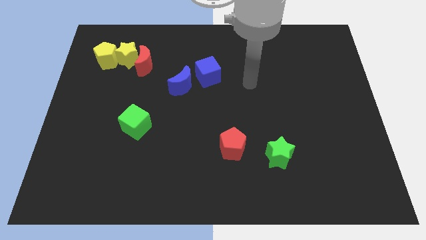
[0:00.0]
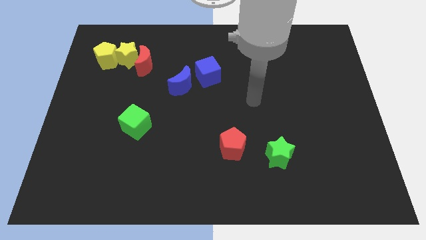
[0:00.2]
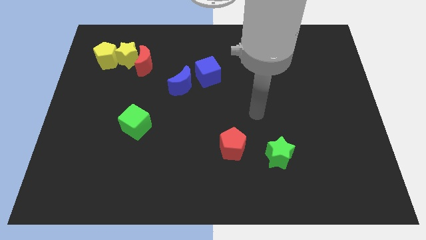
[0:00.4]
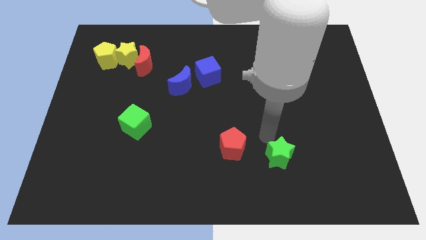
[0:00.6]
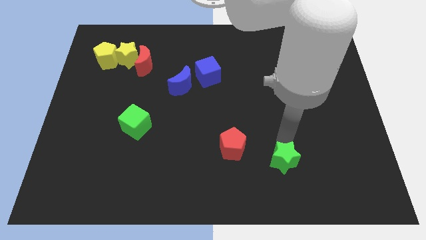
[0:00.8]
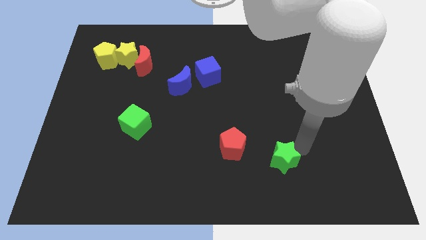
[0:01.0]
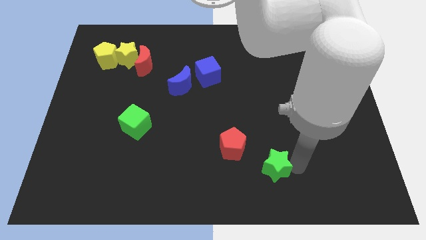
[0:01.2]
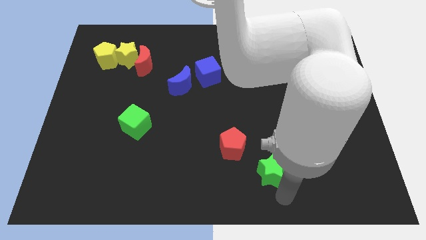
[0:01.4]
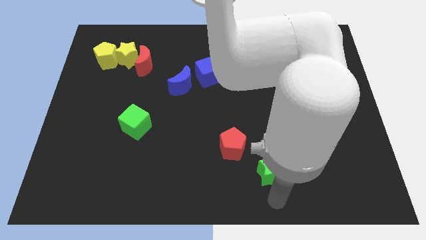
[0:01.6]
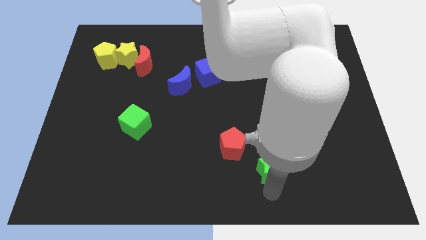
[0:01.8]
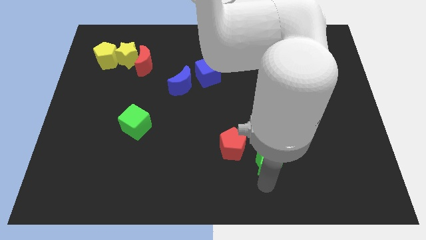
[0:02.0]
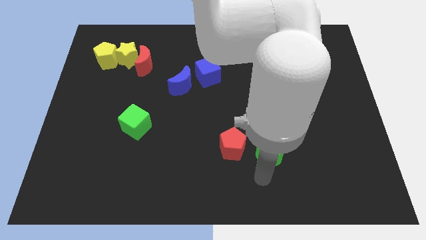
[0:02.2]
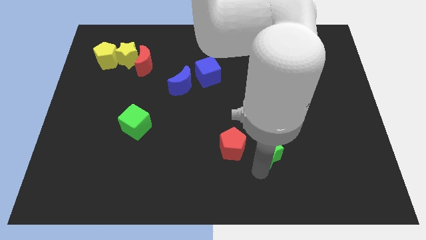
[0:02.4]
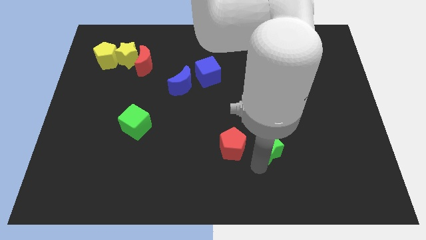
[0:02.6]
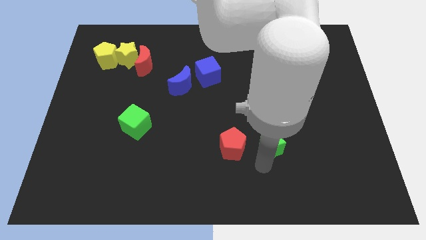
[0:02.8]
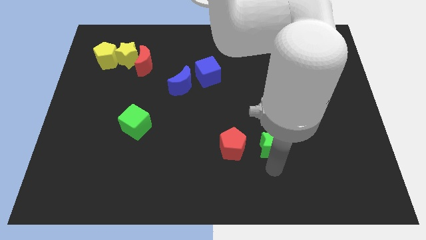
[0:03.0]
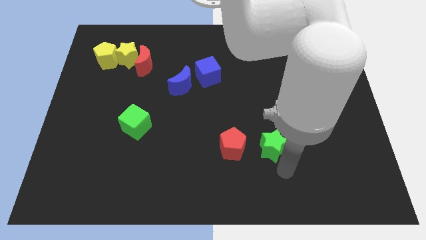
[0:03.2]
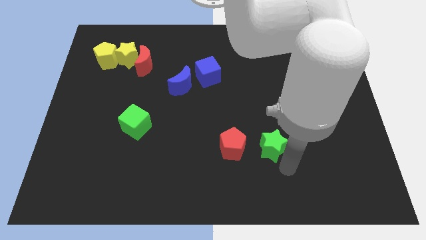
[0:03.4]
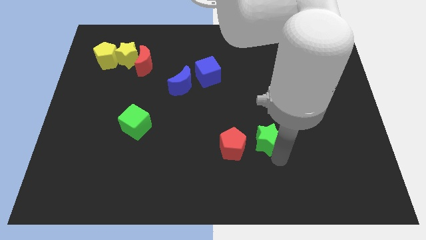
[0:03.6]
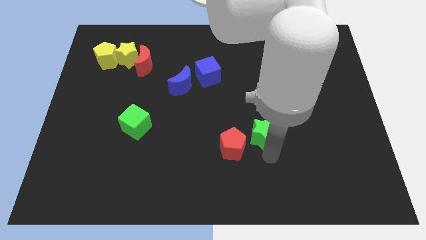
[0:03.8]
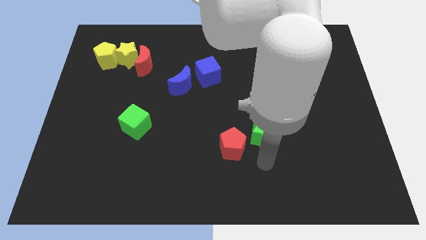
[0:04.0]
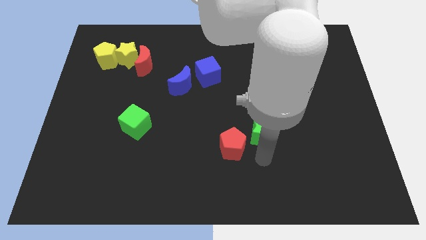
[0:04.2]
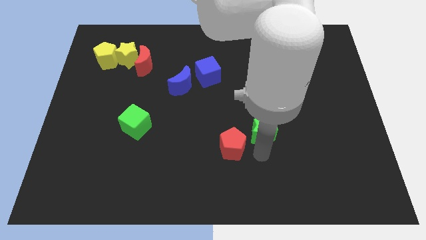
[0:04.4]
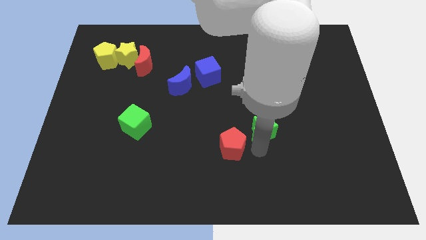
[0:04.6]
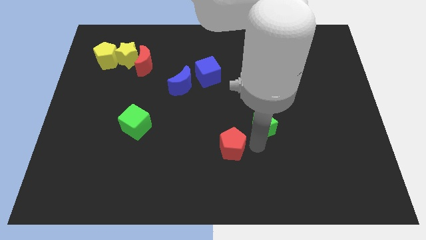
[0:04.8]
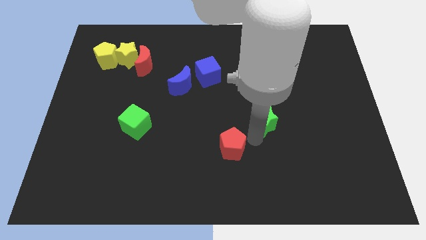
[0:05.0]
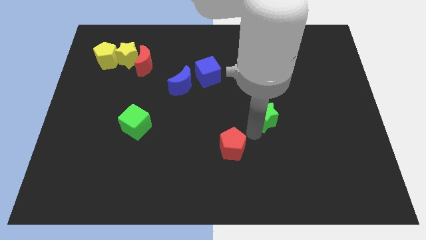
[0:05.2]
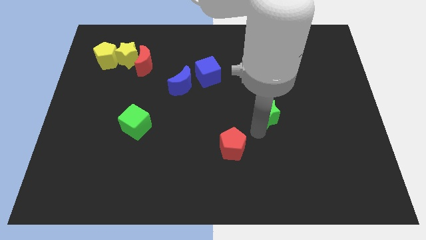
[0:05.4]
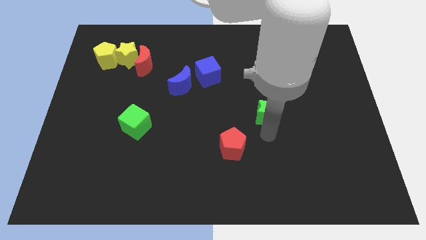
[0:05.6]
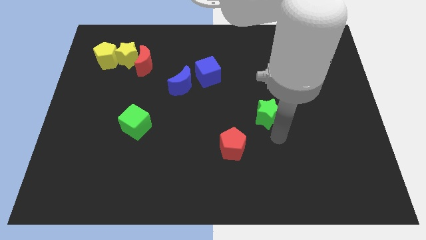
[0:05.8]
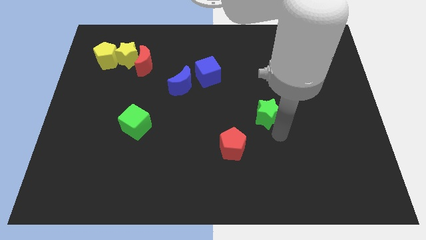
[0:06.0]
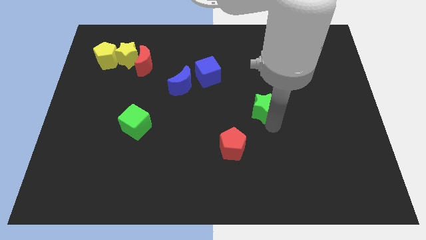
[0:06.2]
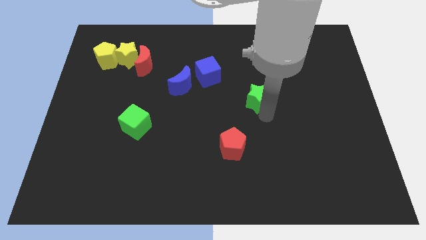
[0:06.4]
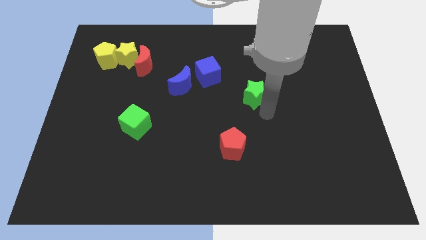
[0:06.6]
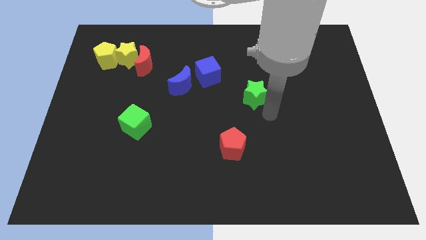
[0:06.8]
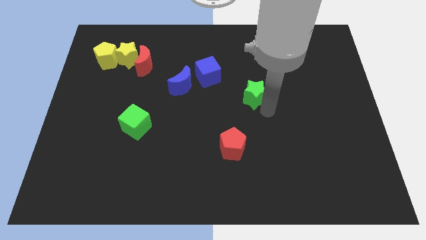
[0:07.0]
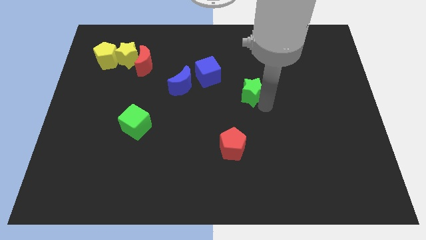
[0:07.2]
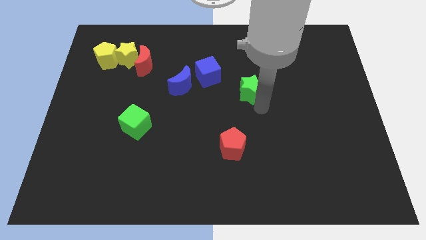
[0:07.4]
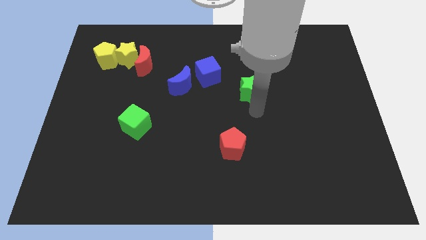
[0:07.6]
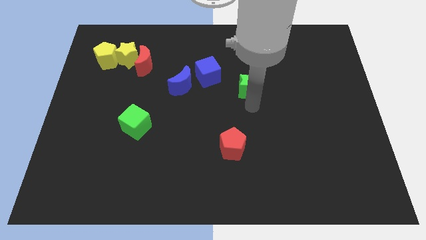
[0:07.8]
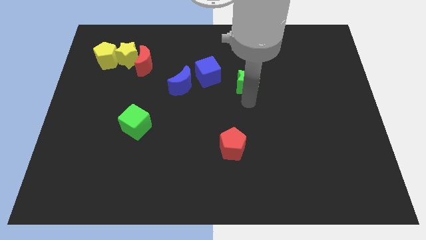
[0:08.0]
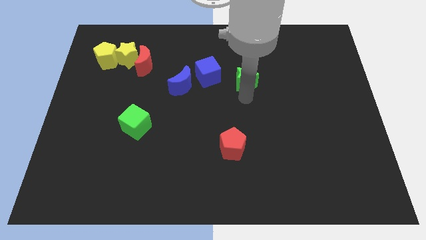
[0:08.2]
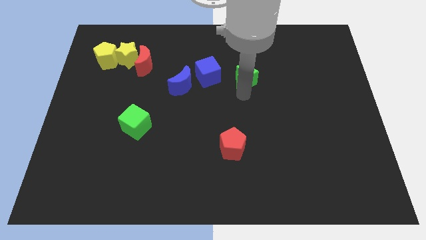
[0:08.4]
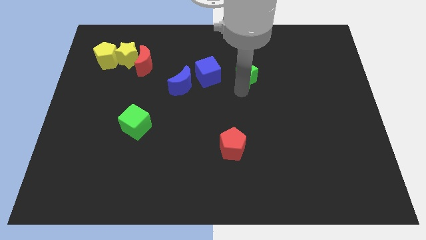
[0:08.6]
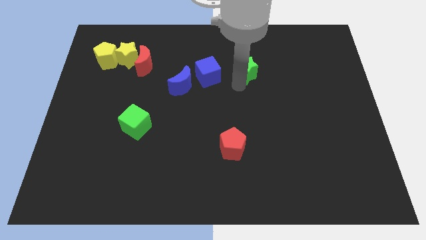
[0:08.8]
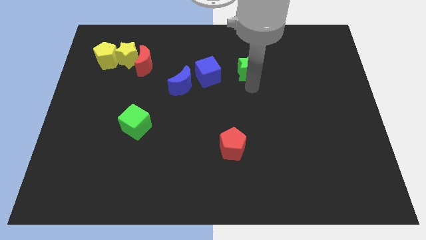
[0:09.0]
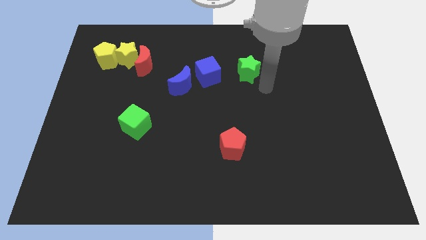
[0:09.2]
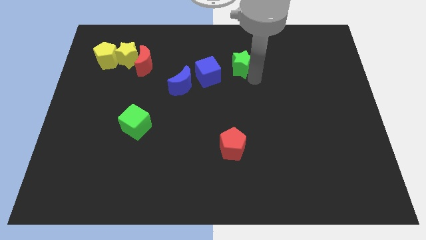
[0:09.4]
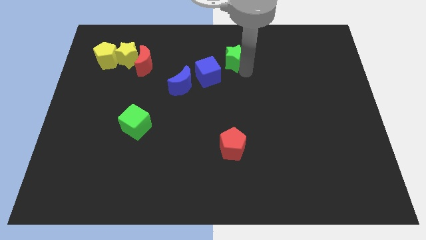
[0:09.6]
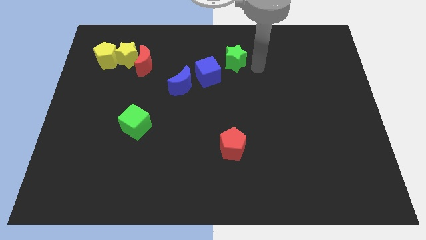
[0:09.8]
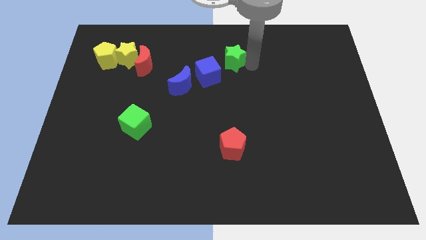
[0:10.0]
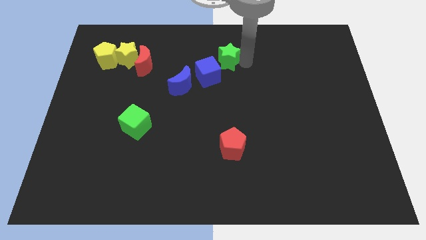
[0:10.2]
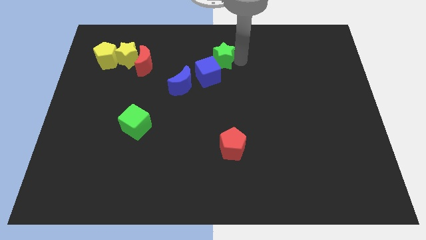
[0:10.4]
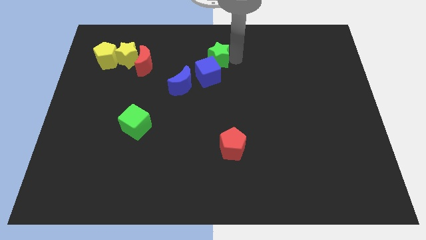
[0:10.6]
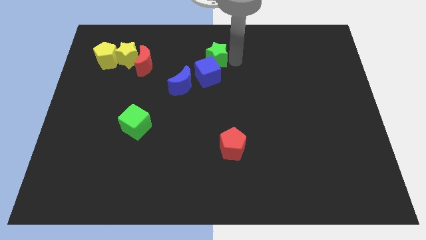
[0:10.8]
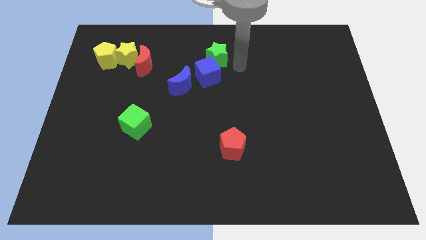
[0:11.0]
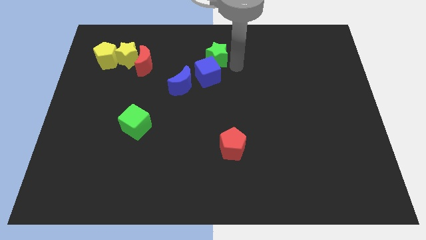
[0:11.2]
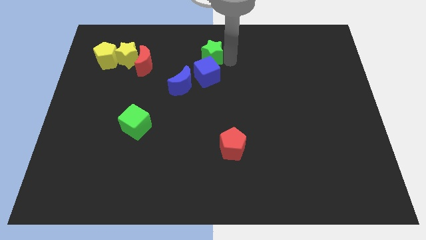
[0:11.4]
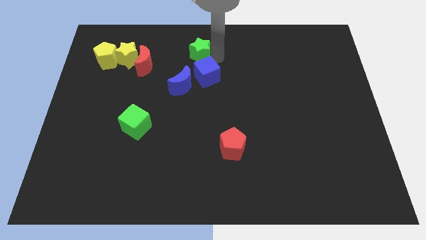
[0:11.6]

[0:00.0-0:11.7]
put the green star to the top of the blue moon
